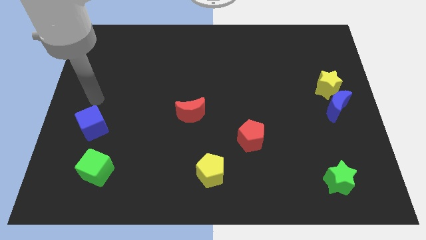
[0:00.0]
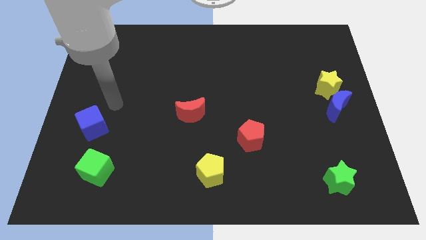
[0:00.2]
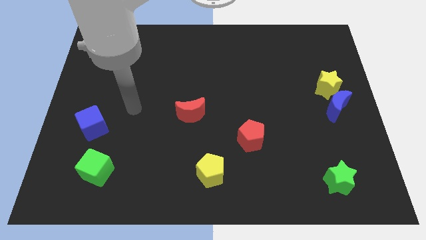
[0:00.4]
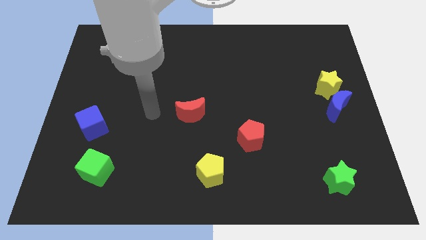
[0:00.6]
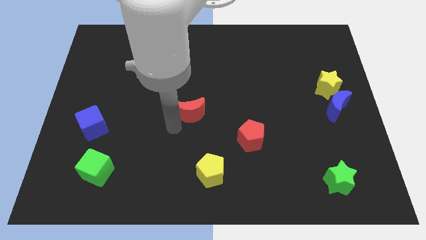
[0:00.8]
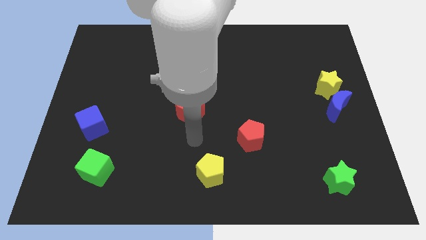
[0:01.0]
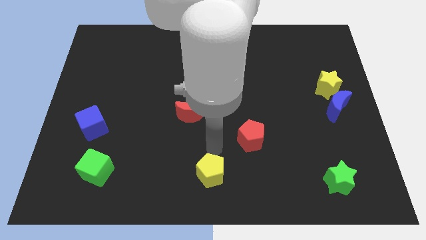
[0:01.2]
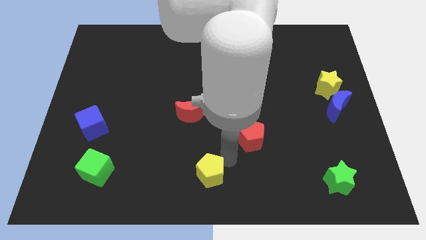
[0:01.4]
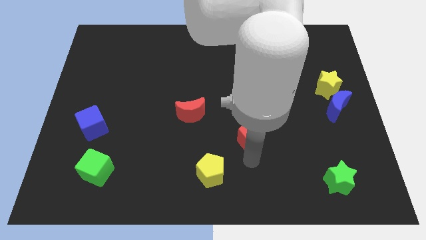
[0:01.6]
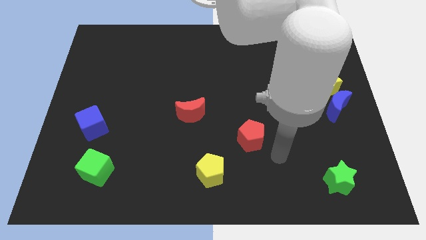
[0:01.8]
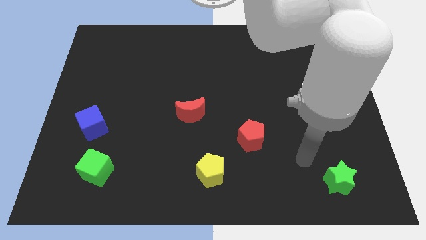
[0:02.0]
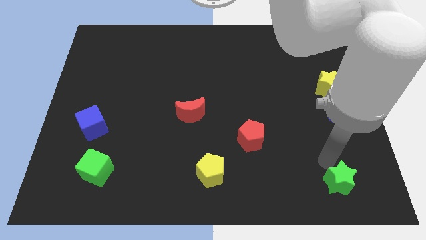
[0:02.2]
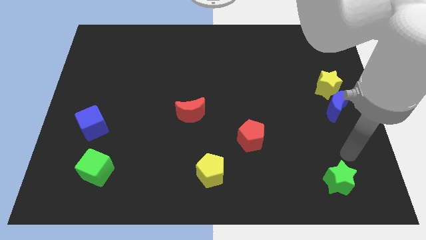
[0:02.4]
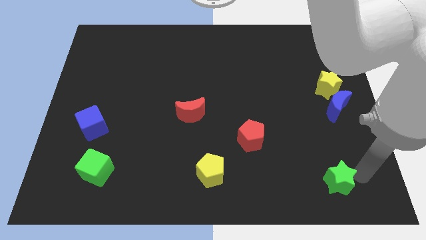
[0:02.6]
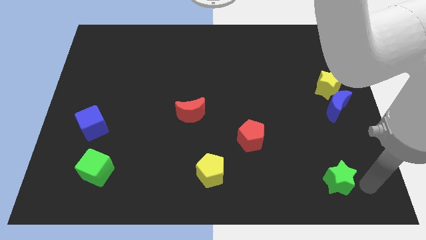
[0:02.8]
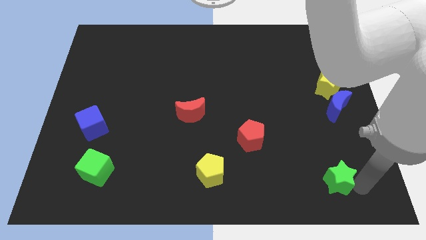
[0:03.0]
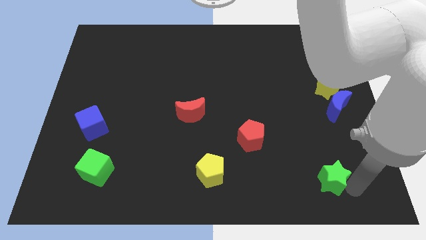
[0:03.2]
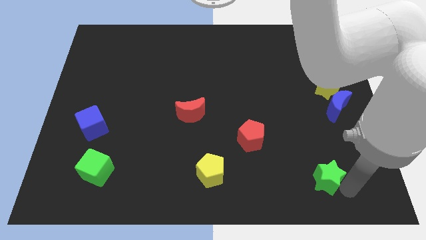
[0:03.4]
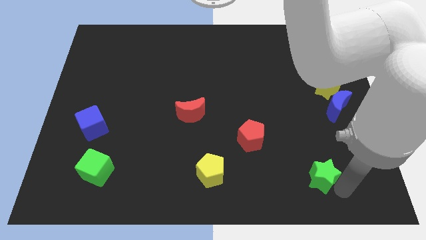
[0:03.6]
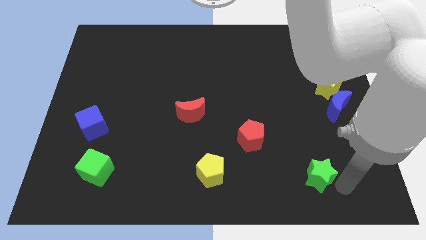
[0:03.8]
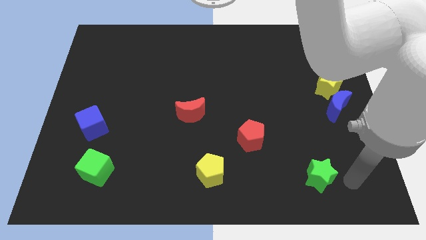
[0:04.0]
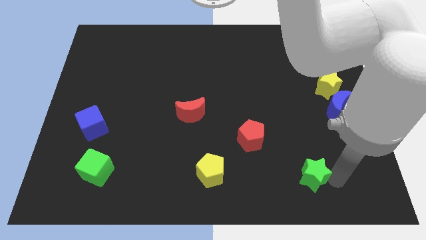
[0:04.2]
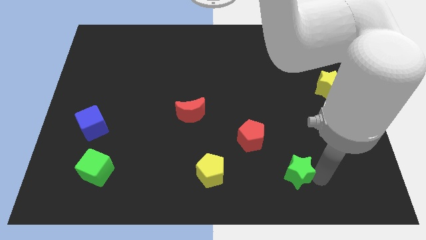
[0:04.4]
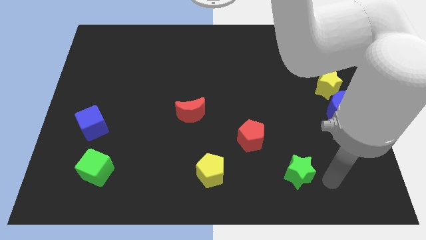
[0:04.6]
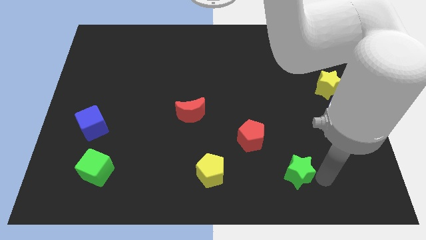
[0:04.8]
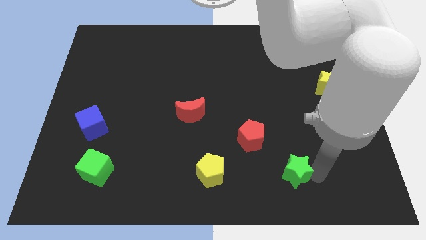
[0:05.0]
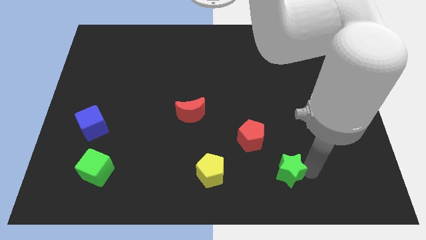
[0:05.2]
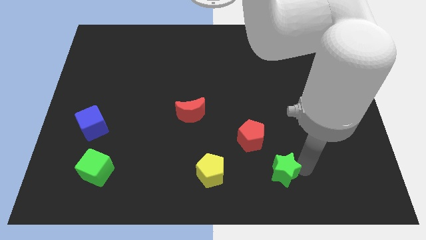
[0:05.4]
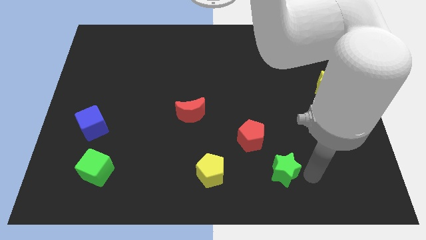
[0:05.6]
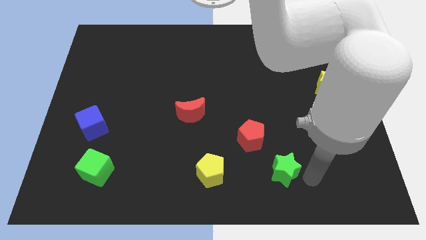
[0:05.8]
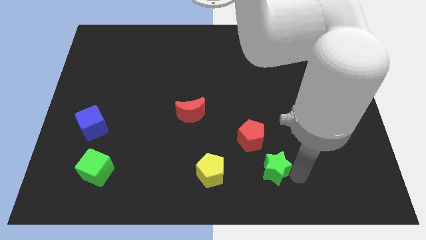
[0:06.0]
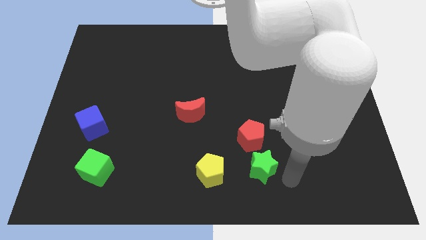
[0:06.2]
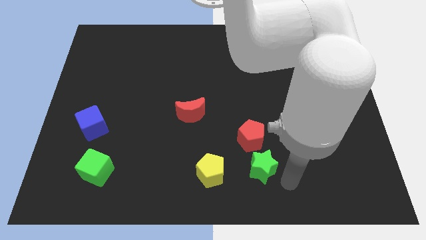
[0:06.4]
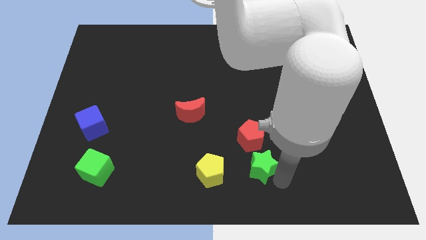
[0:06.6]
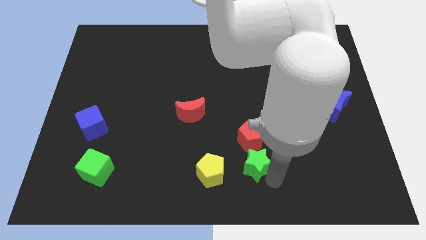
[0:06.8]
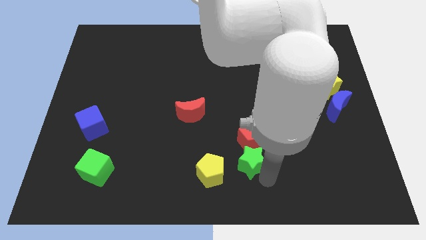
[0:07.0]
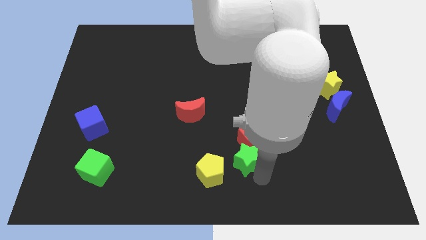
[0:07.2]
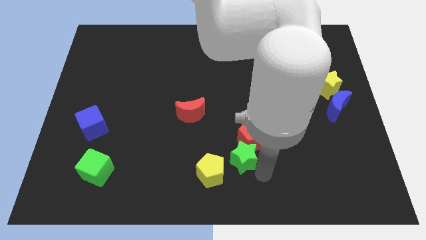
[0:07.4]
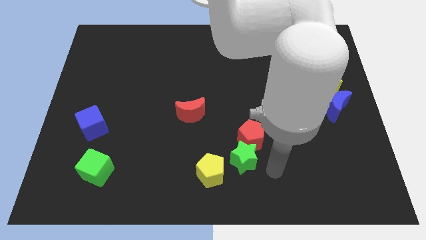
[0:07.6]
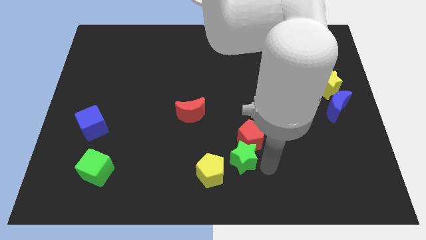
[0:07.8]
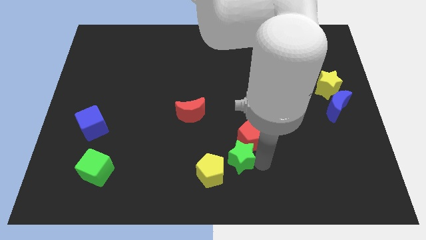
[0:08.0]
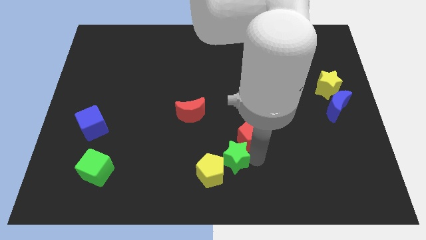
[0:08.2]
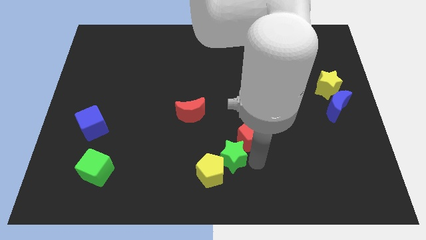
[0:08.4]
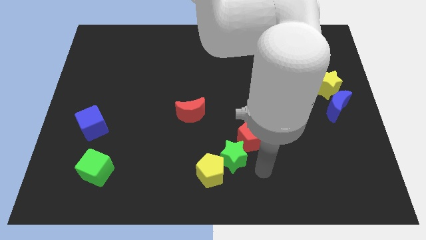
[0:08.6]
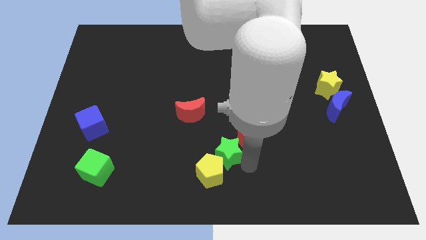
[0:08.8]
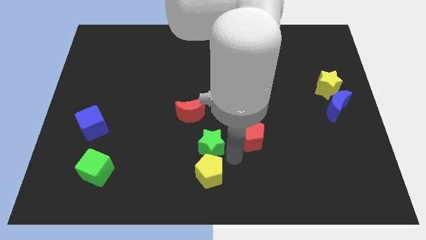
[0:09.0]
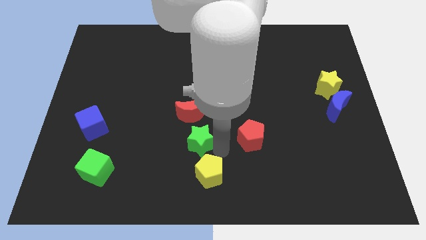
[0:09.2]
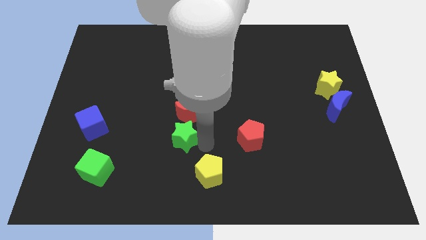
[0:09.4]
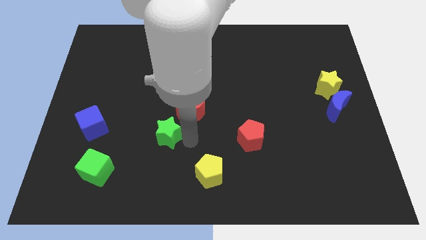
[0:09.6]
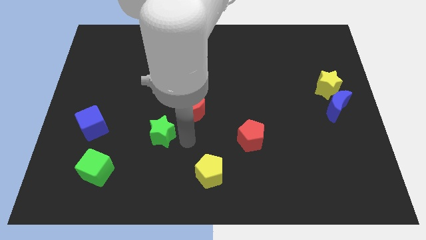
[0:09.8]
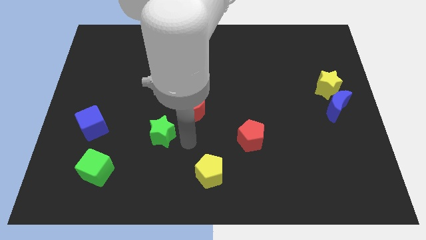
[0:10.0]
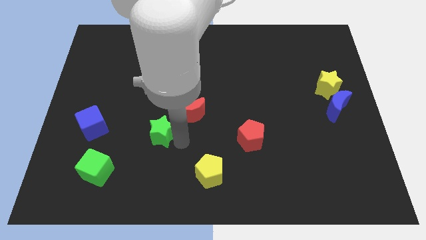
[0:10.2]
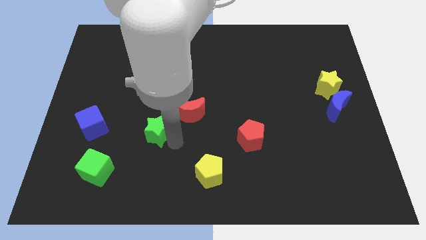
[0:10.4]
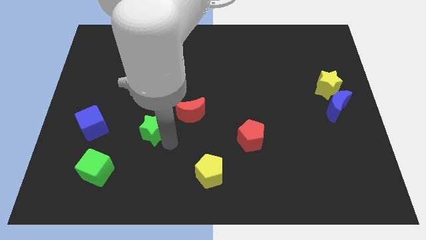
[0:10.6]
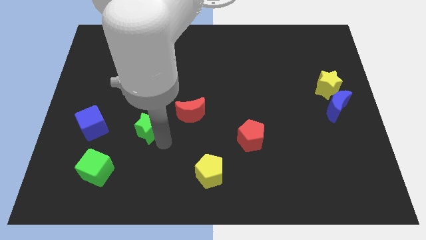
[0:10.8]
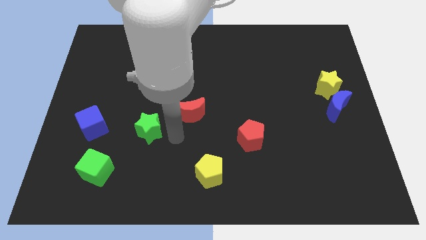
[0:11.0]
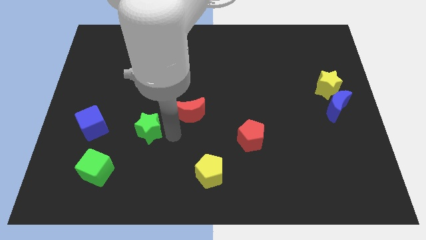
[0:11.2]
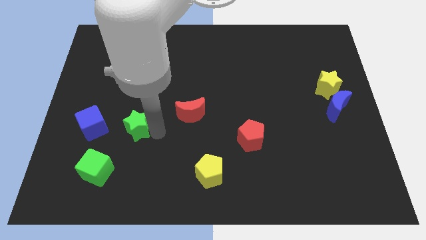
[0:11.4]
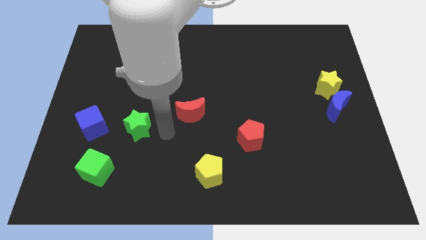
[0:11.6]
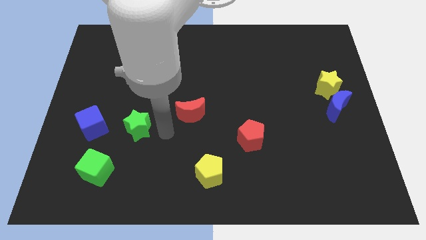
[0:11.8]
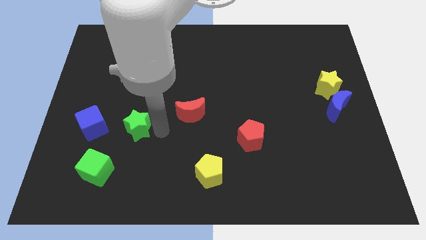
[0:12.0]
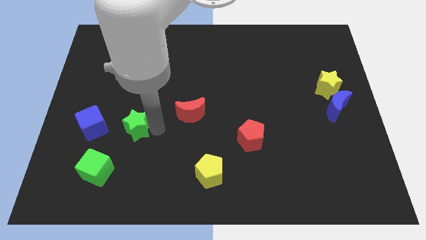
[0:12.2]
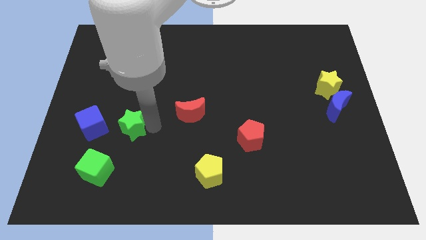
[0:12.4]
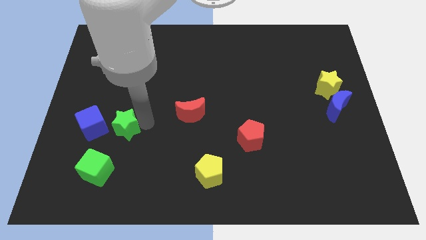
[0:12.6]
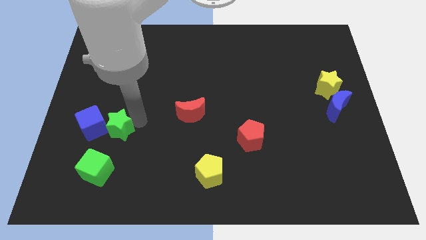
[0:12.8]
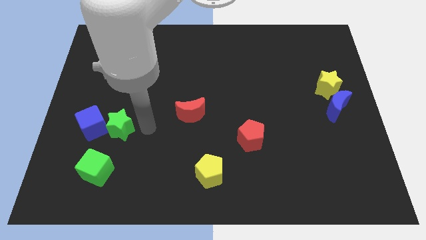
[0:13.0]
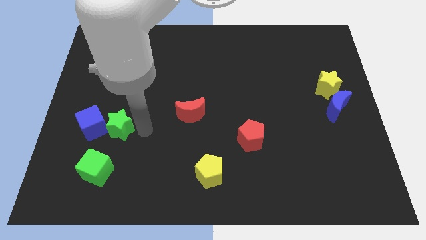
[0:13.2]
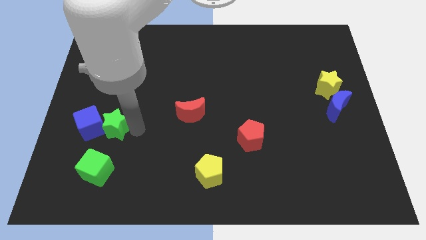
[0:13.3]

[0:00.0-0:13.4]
slide the green star to the blue cube
